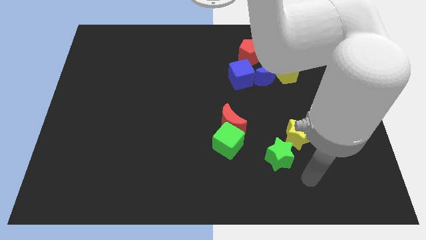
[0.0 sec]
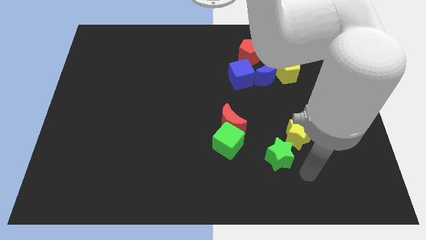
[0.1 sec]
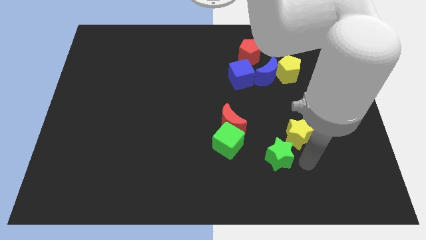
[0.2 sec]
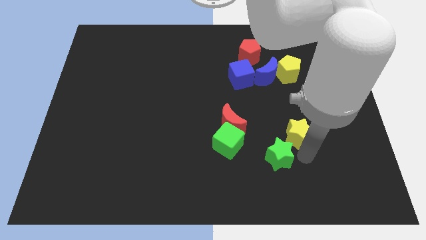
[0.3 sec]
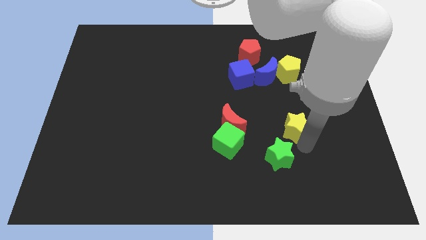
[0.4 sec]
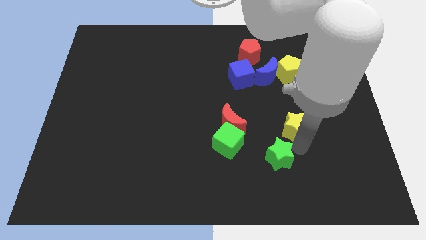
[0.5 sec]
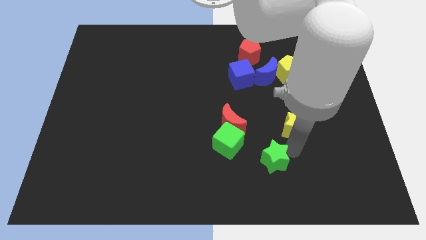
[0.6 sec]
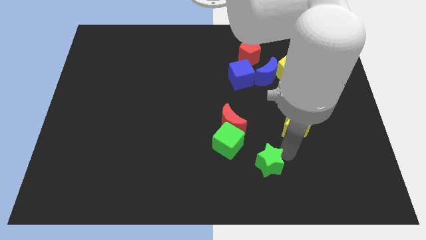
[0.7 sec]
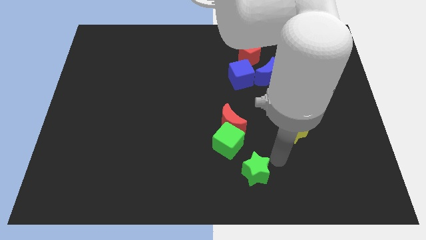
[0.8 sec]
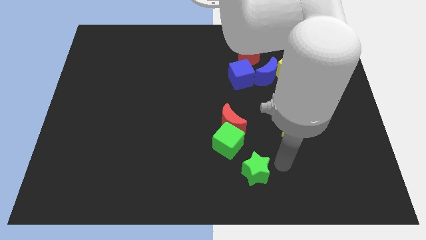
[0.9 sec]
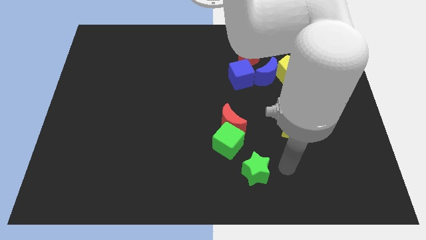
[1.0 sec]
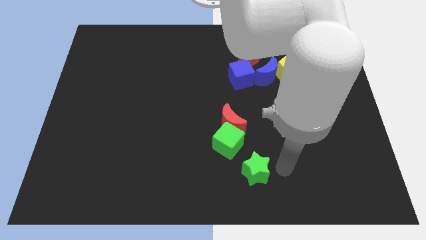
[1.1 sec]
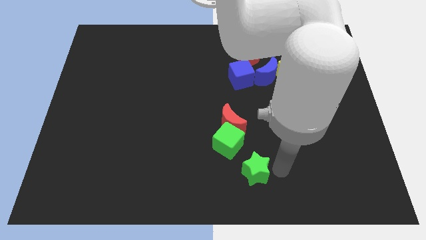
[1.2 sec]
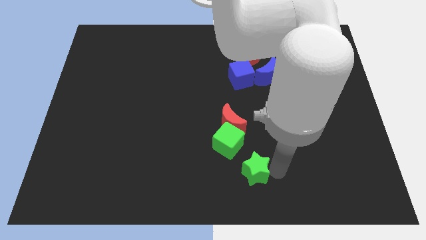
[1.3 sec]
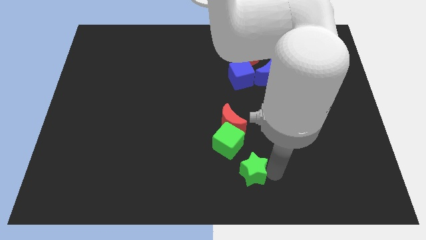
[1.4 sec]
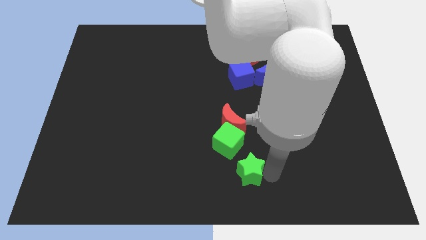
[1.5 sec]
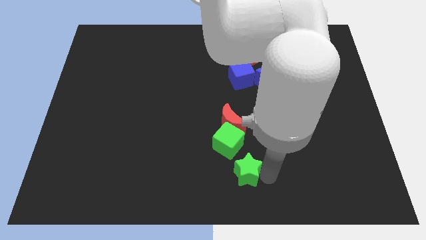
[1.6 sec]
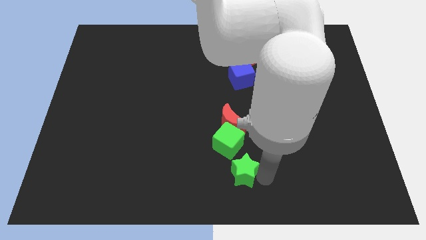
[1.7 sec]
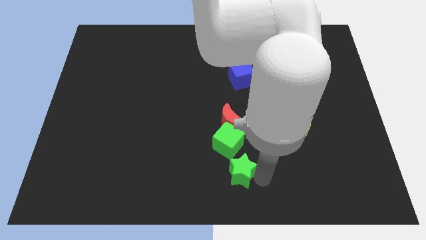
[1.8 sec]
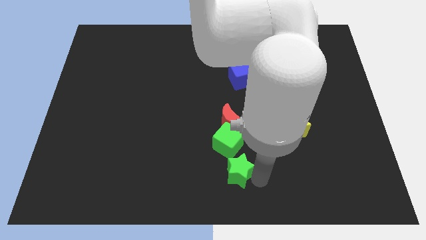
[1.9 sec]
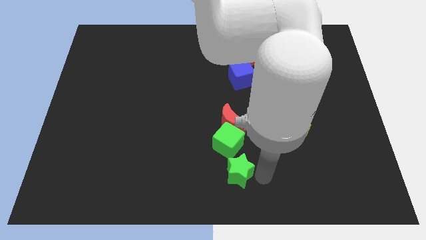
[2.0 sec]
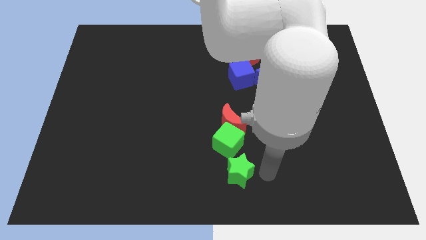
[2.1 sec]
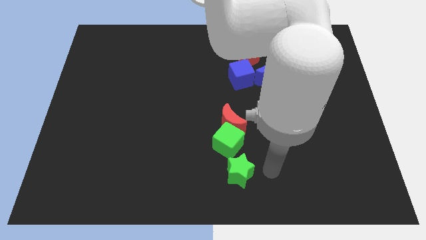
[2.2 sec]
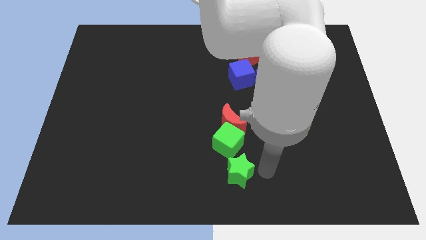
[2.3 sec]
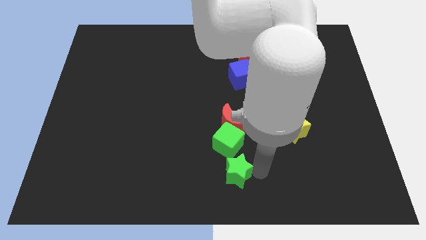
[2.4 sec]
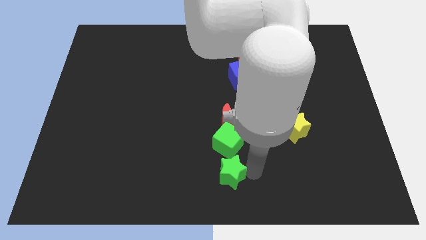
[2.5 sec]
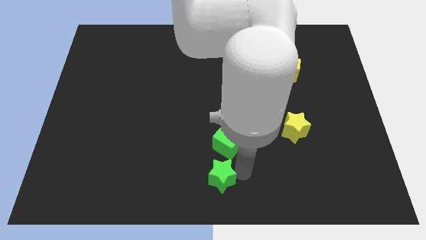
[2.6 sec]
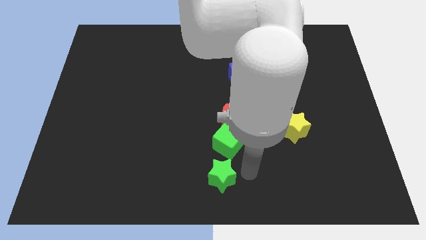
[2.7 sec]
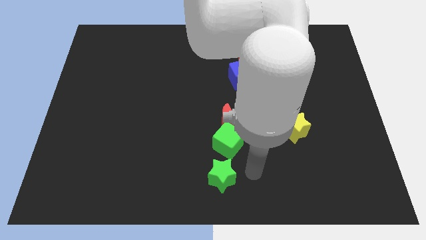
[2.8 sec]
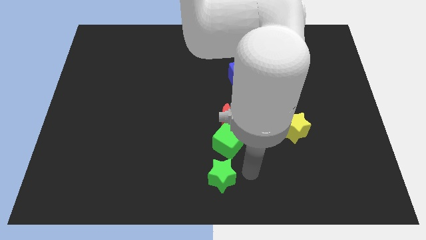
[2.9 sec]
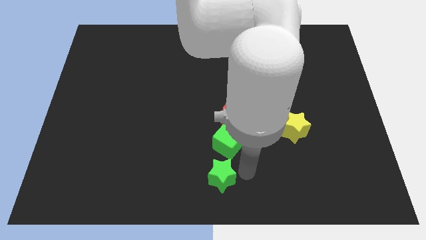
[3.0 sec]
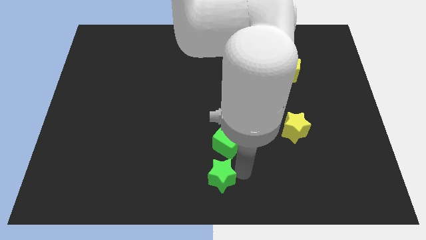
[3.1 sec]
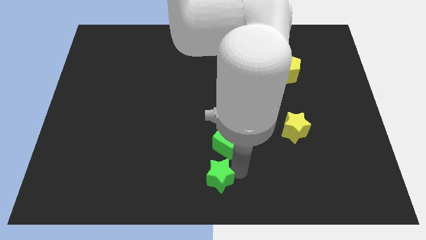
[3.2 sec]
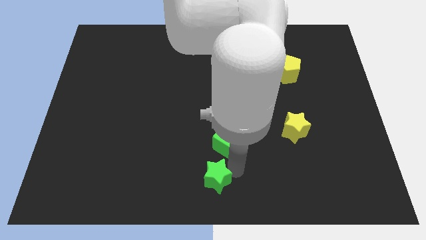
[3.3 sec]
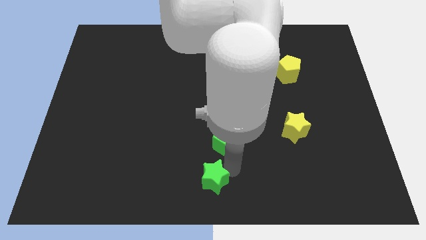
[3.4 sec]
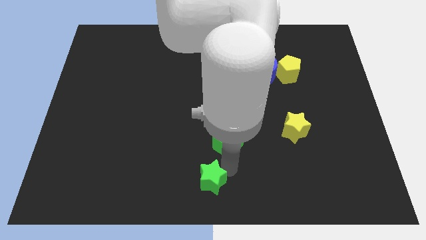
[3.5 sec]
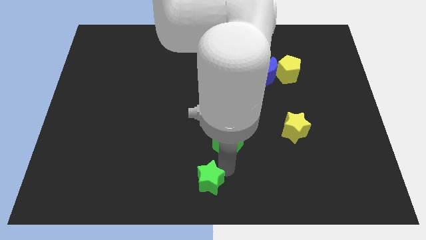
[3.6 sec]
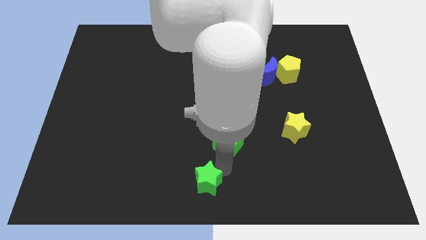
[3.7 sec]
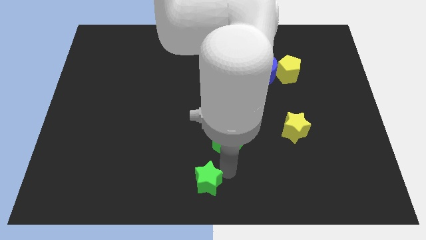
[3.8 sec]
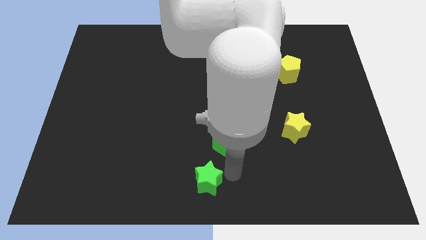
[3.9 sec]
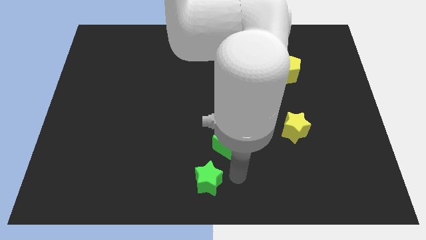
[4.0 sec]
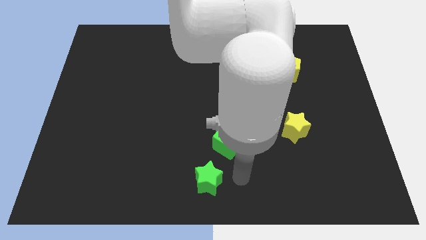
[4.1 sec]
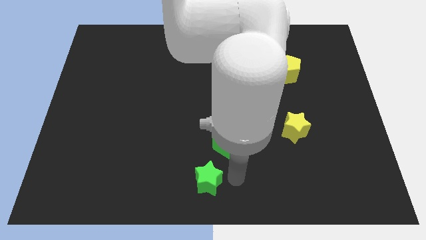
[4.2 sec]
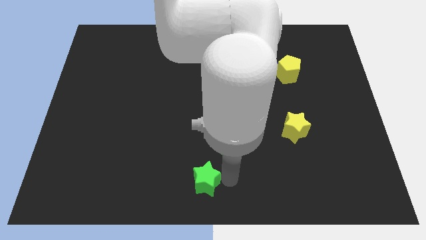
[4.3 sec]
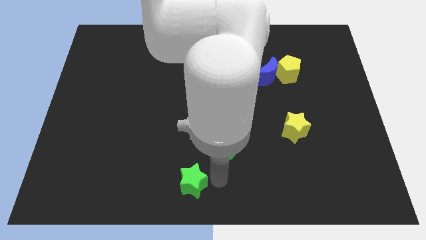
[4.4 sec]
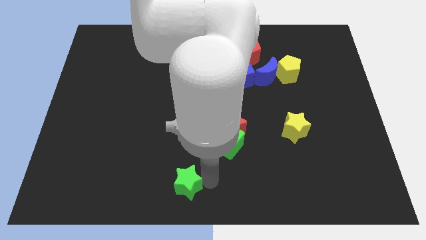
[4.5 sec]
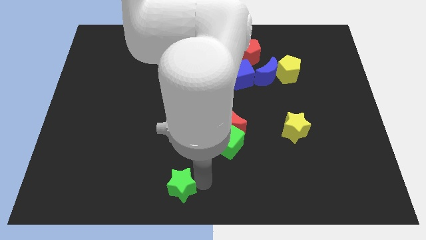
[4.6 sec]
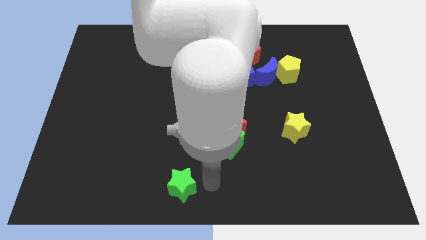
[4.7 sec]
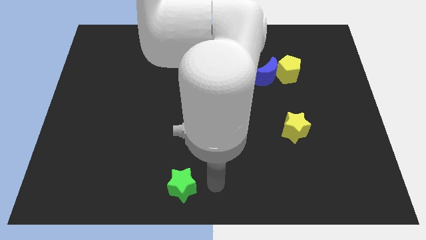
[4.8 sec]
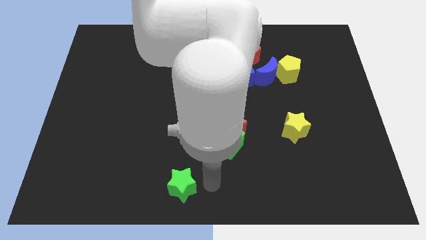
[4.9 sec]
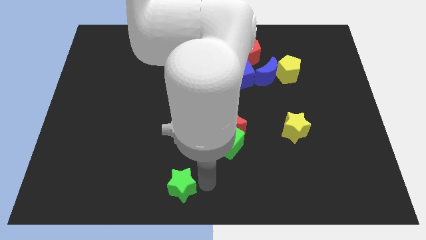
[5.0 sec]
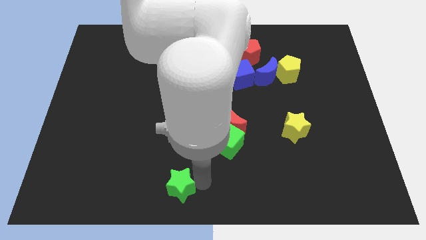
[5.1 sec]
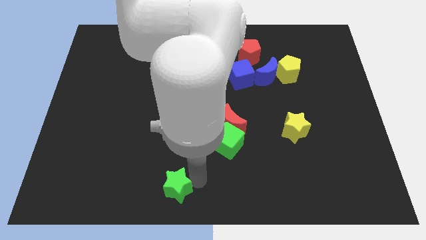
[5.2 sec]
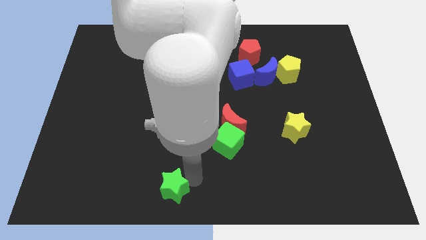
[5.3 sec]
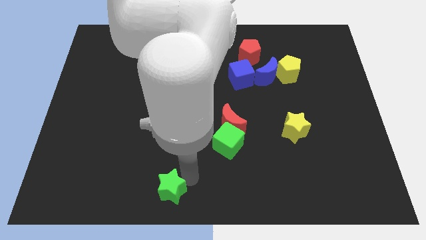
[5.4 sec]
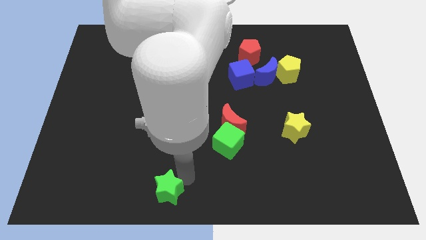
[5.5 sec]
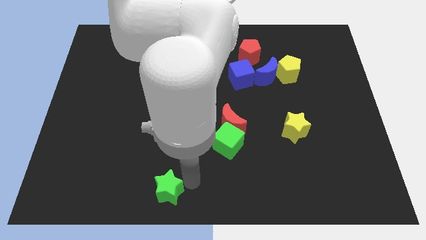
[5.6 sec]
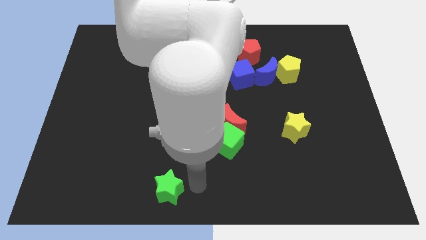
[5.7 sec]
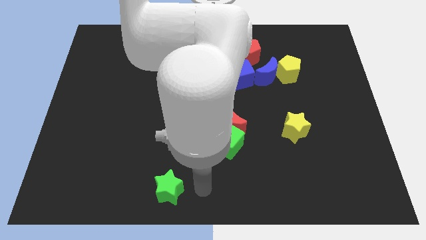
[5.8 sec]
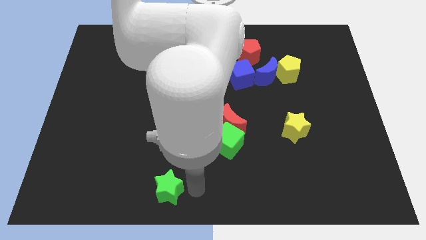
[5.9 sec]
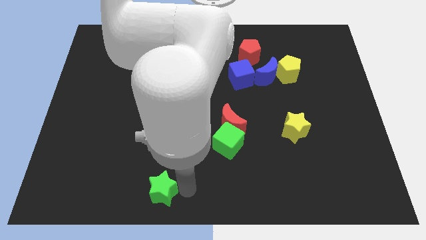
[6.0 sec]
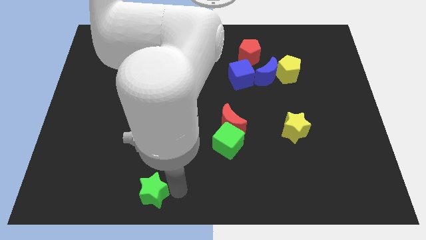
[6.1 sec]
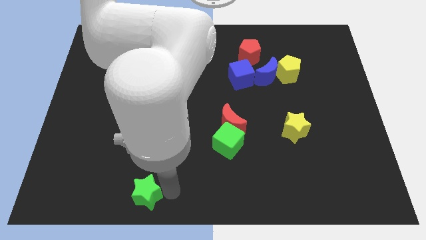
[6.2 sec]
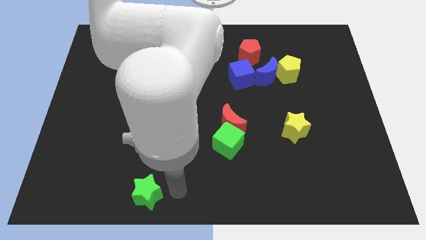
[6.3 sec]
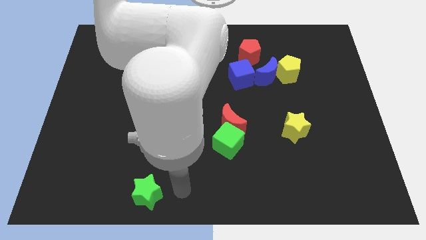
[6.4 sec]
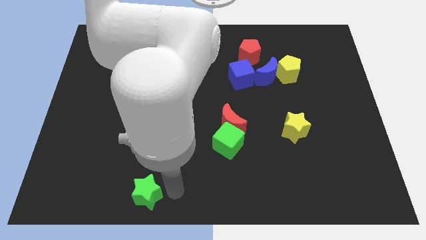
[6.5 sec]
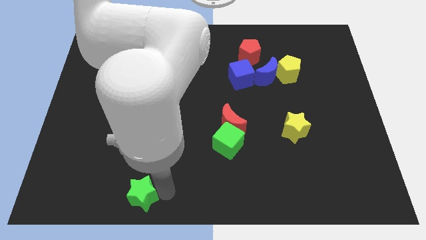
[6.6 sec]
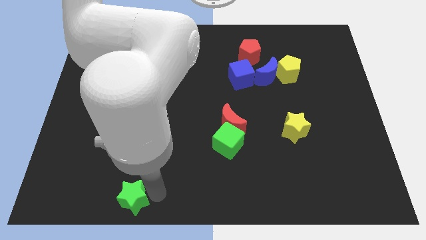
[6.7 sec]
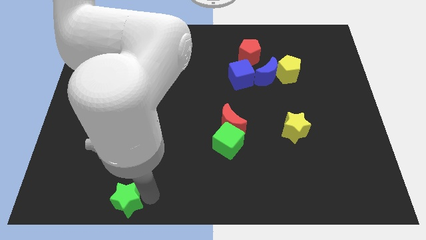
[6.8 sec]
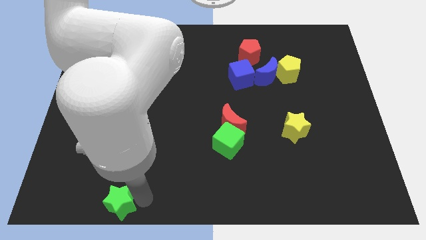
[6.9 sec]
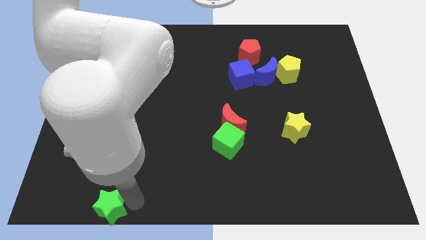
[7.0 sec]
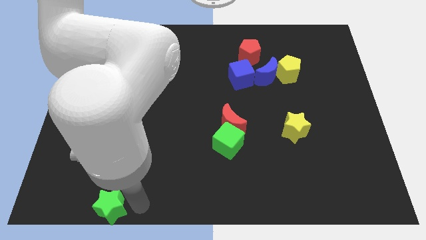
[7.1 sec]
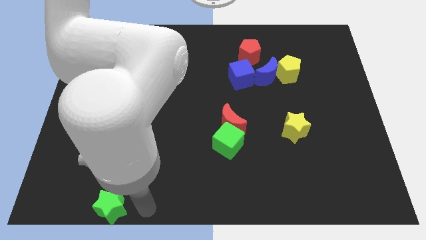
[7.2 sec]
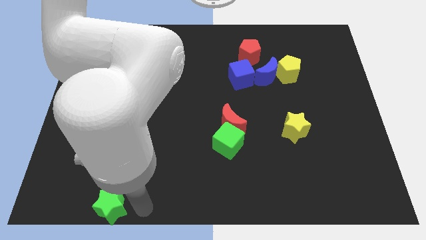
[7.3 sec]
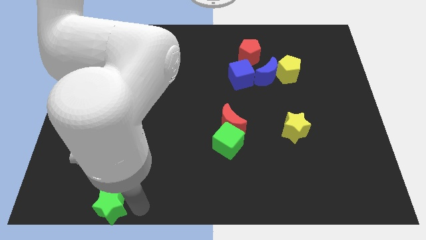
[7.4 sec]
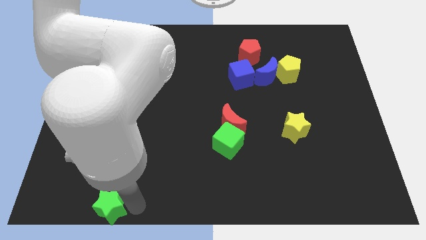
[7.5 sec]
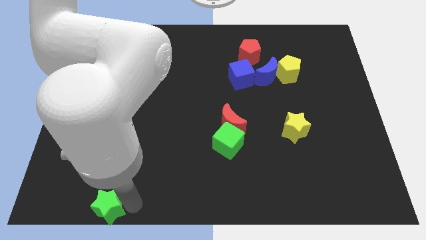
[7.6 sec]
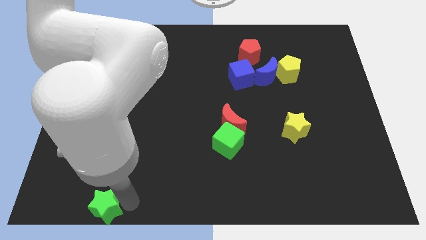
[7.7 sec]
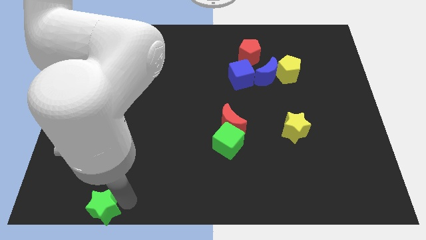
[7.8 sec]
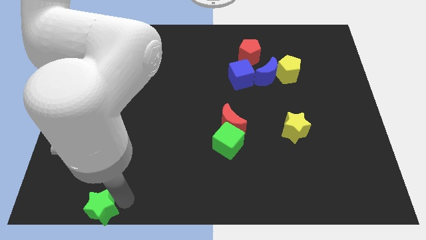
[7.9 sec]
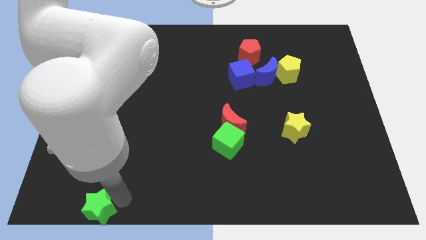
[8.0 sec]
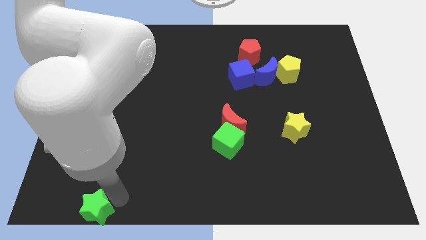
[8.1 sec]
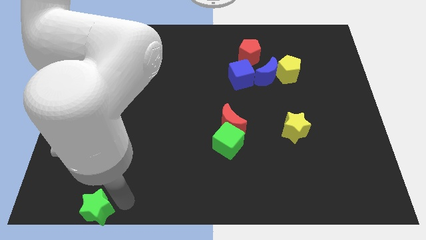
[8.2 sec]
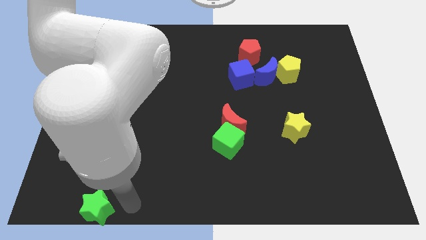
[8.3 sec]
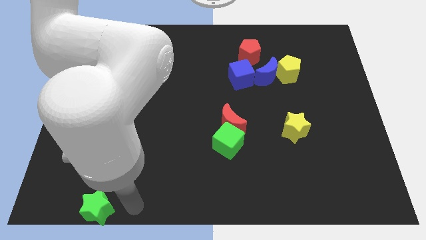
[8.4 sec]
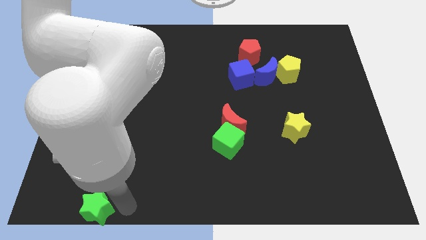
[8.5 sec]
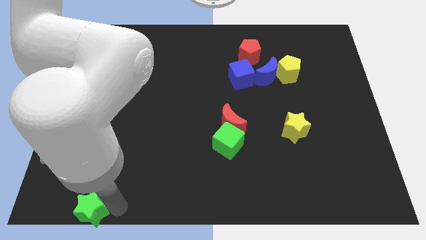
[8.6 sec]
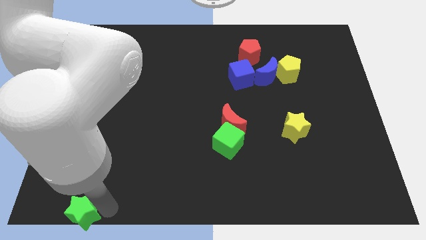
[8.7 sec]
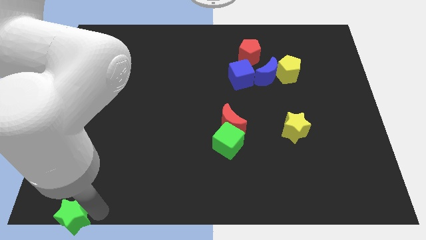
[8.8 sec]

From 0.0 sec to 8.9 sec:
move the green star to the bottom left
